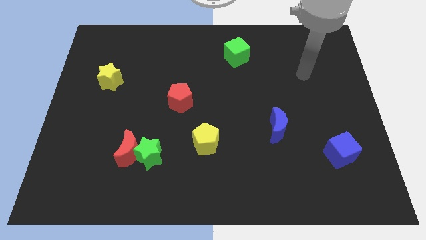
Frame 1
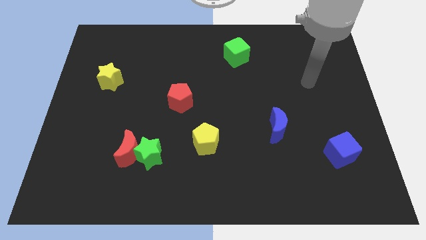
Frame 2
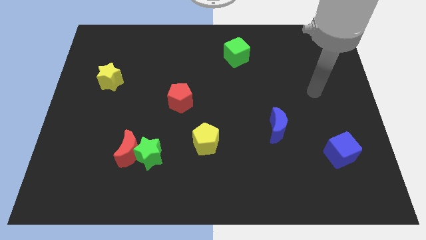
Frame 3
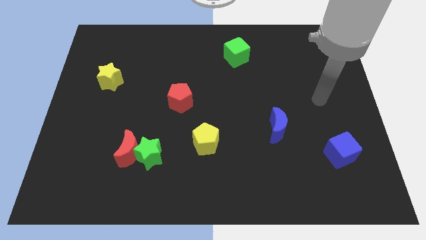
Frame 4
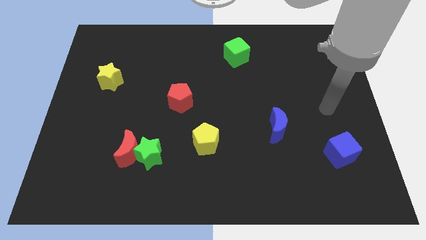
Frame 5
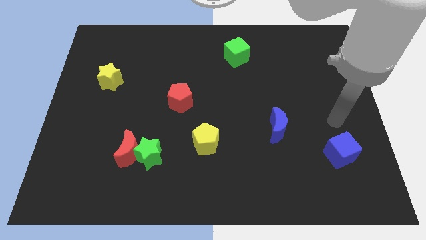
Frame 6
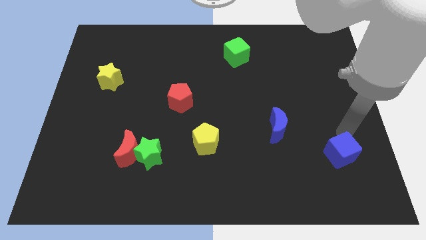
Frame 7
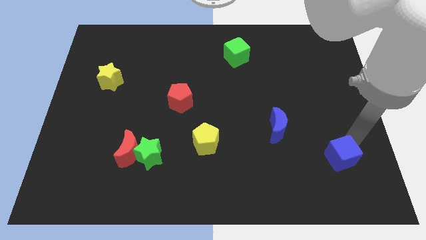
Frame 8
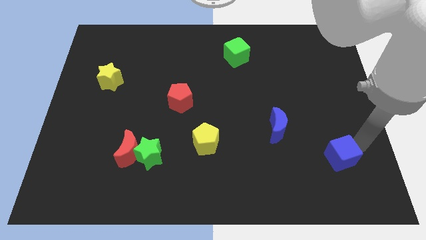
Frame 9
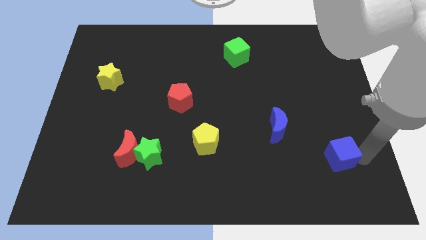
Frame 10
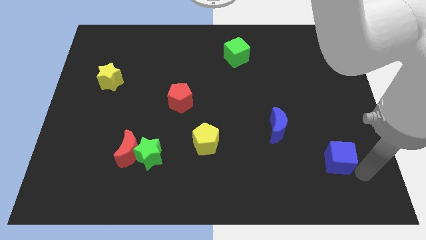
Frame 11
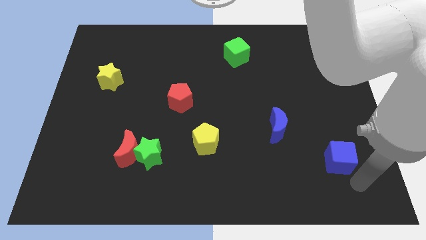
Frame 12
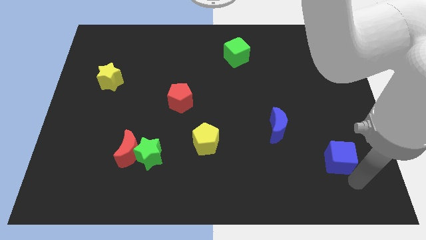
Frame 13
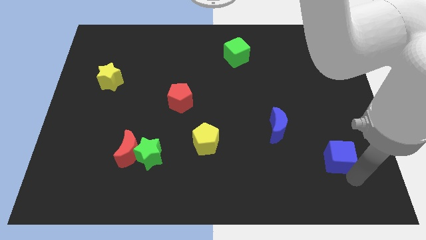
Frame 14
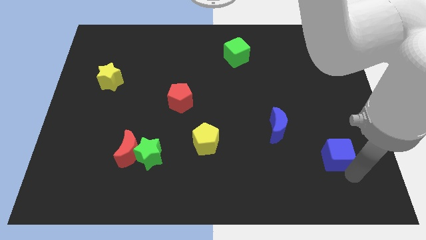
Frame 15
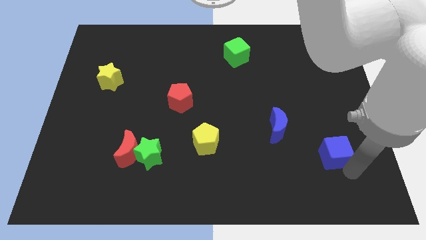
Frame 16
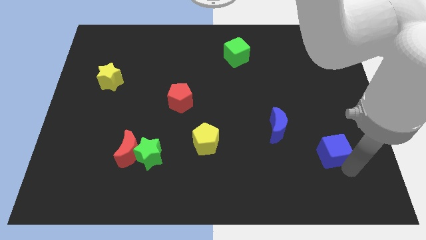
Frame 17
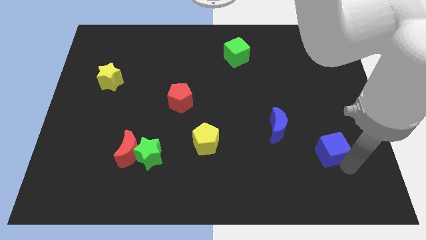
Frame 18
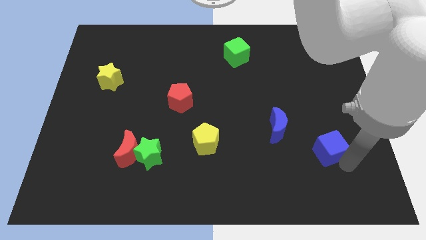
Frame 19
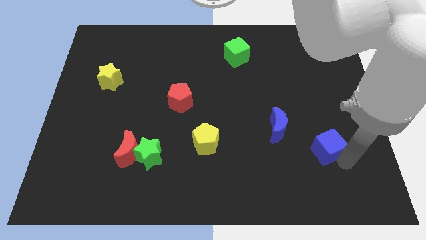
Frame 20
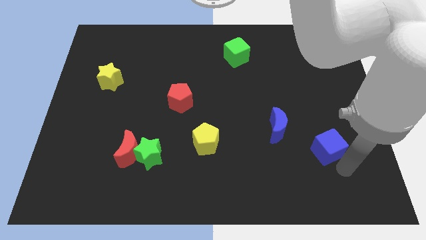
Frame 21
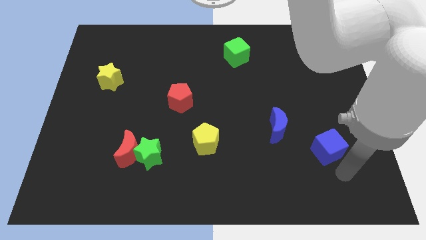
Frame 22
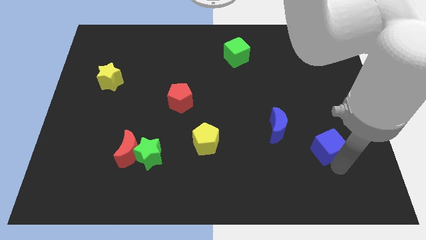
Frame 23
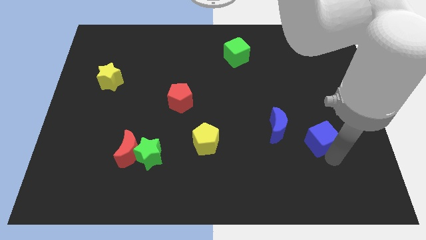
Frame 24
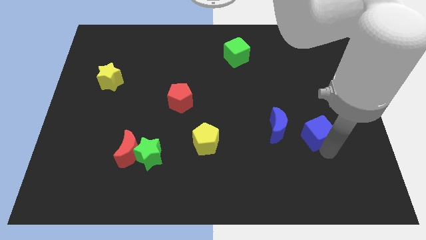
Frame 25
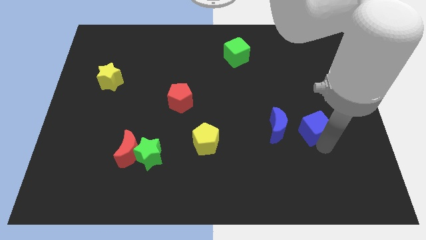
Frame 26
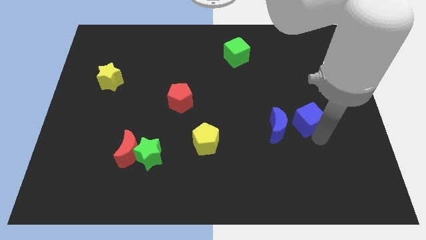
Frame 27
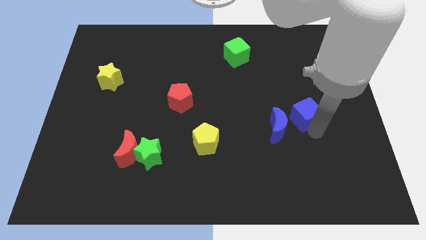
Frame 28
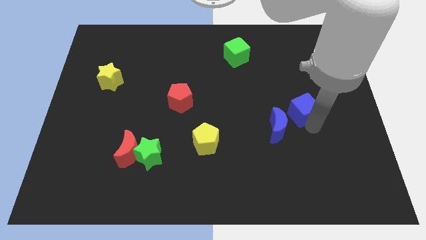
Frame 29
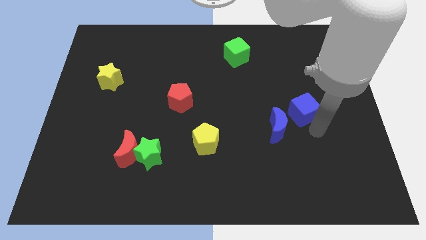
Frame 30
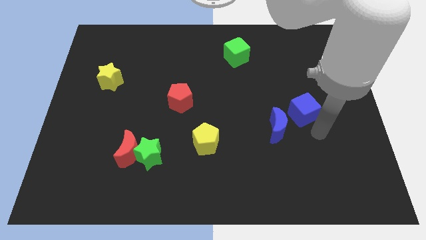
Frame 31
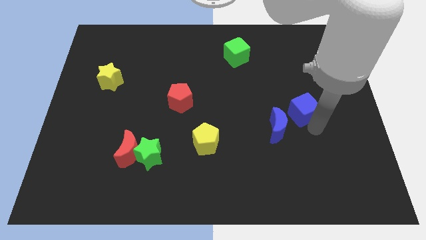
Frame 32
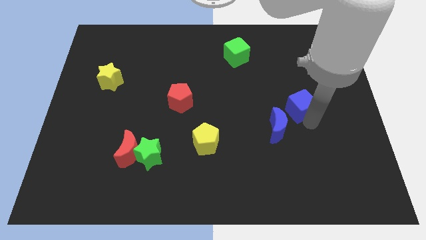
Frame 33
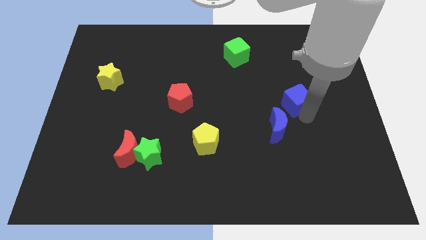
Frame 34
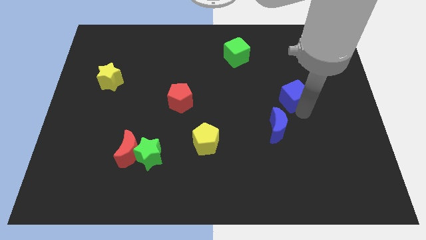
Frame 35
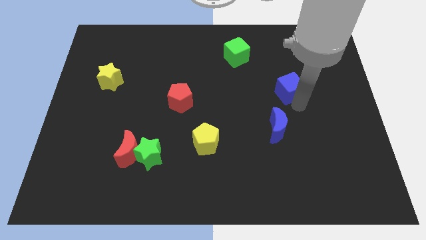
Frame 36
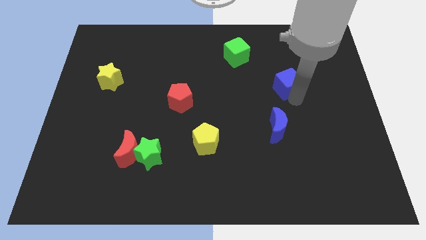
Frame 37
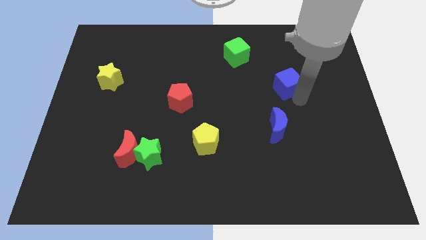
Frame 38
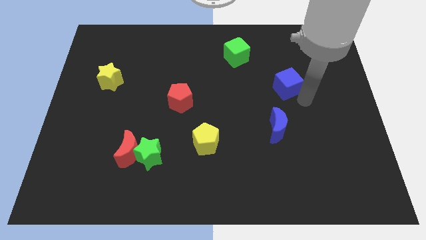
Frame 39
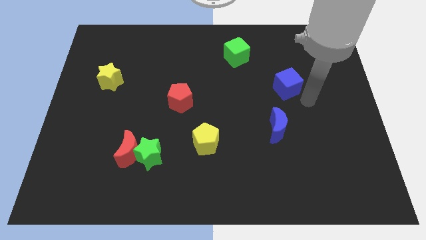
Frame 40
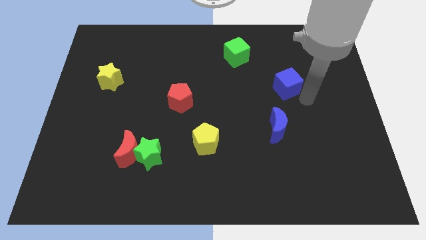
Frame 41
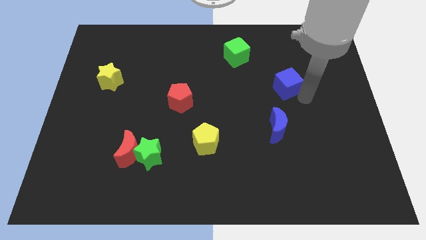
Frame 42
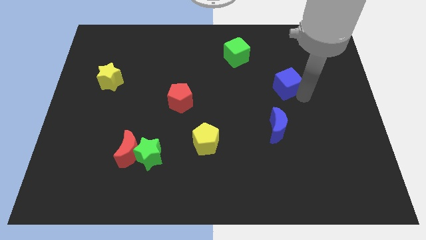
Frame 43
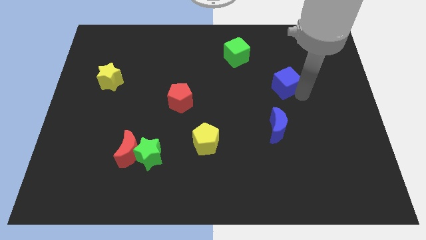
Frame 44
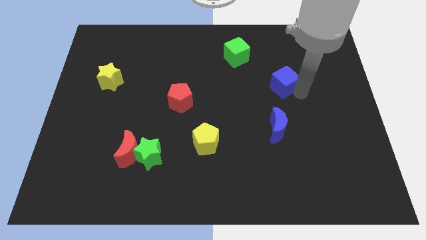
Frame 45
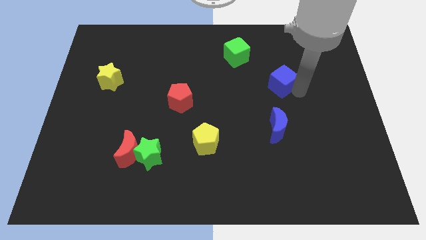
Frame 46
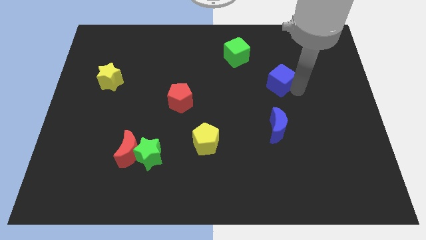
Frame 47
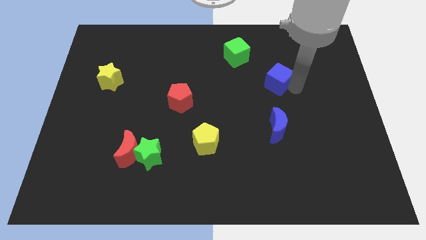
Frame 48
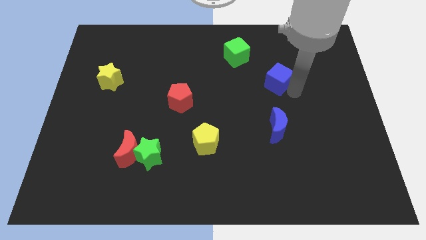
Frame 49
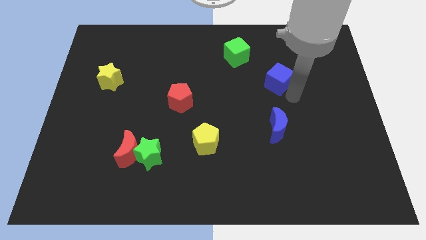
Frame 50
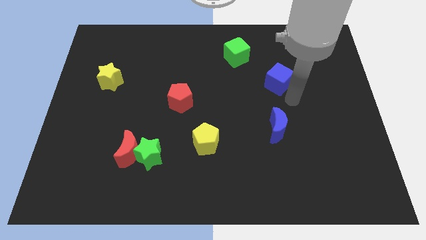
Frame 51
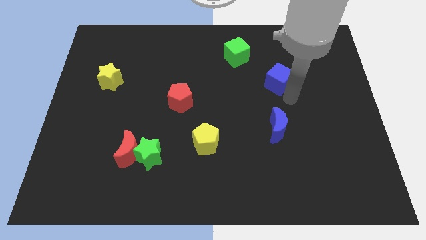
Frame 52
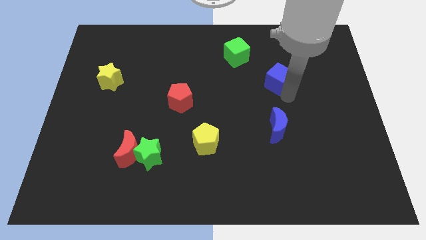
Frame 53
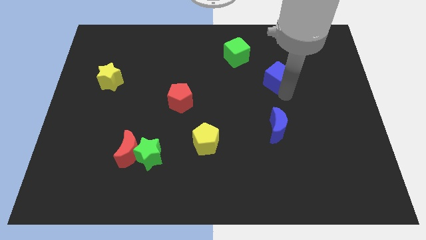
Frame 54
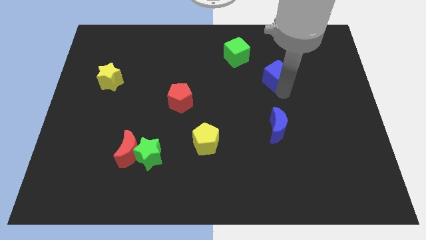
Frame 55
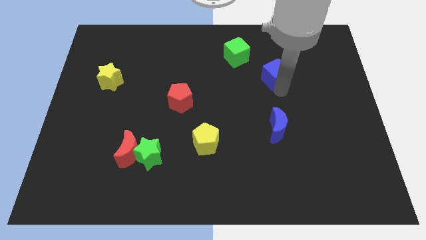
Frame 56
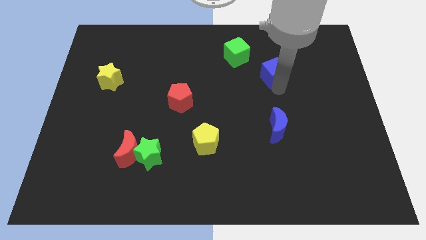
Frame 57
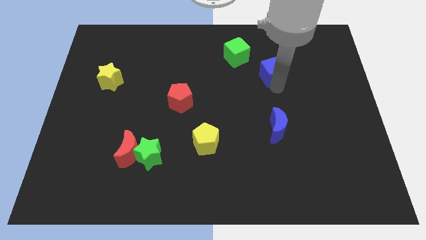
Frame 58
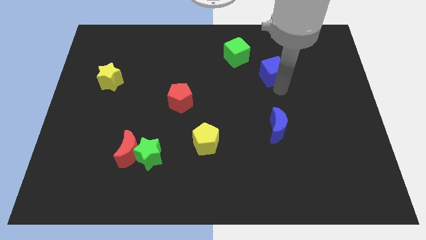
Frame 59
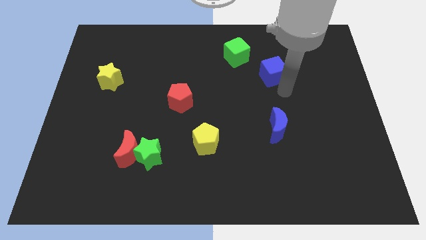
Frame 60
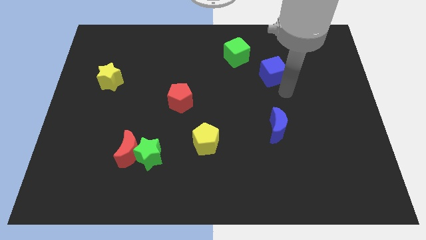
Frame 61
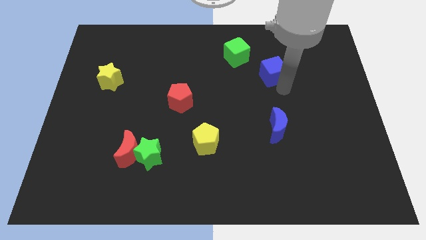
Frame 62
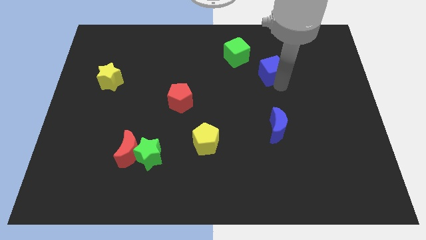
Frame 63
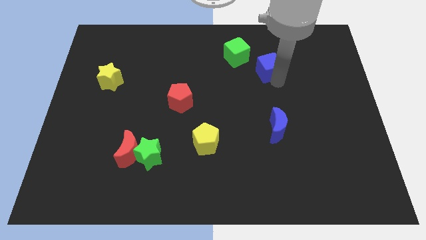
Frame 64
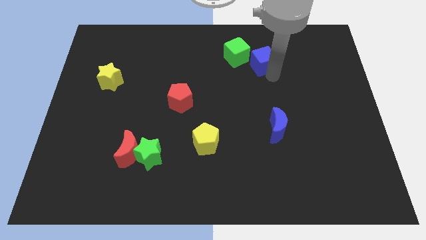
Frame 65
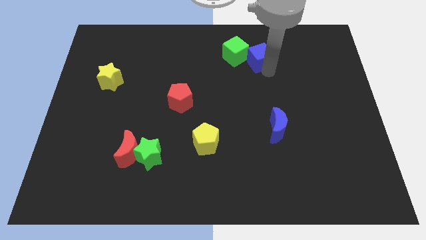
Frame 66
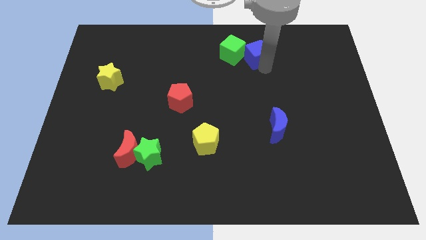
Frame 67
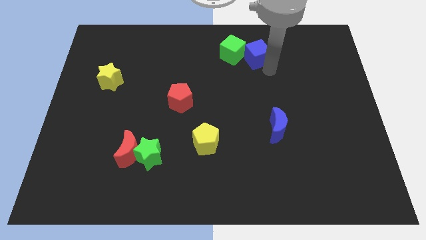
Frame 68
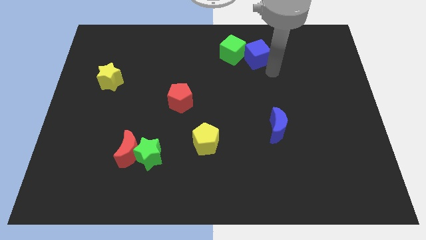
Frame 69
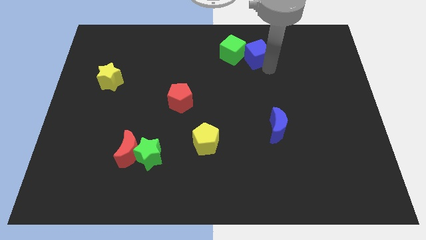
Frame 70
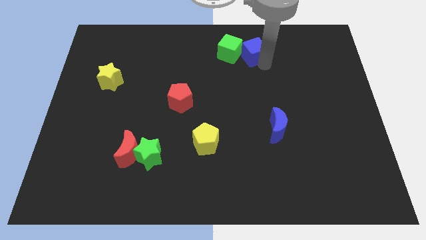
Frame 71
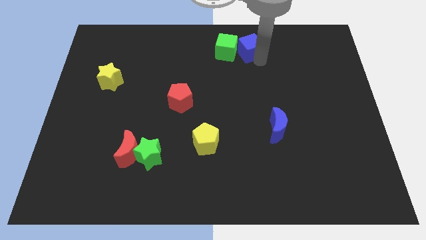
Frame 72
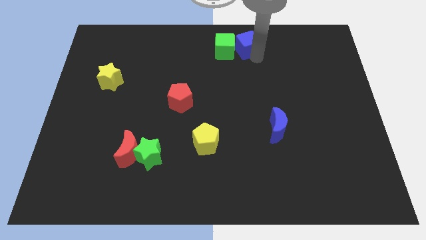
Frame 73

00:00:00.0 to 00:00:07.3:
move the blue cube to the top side
